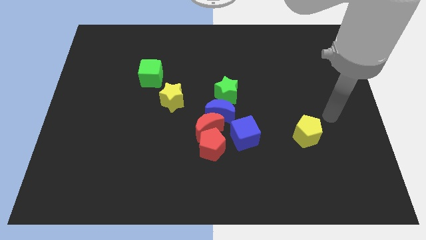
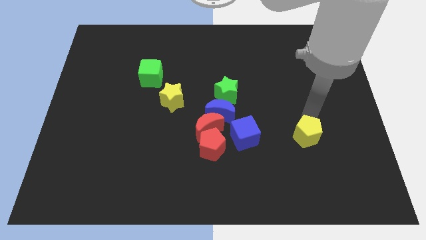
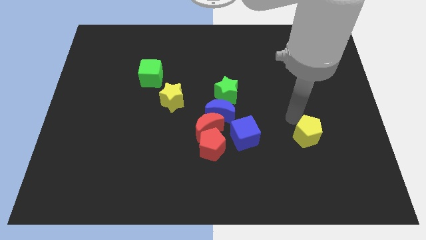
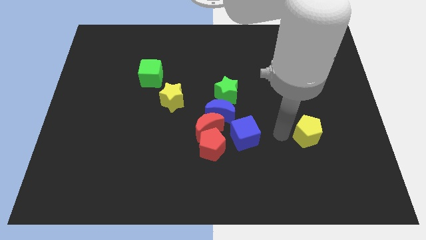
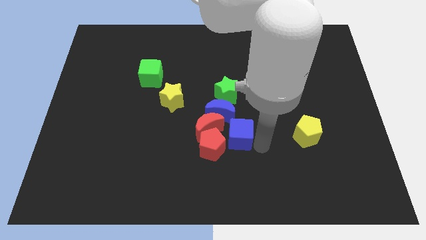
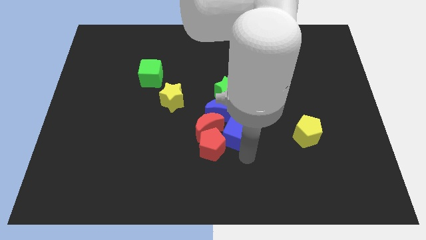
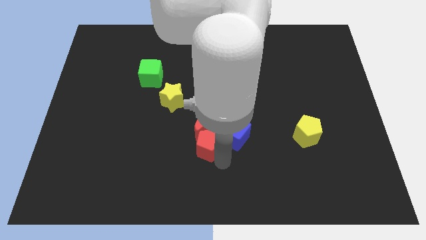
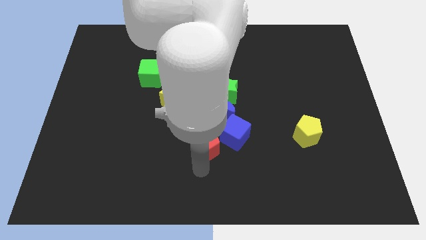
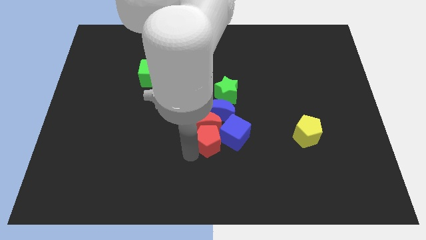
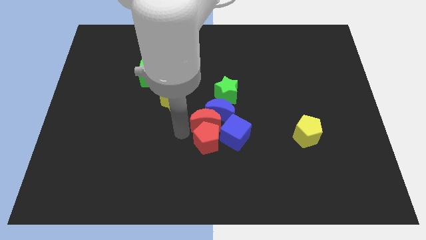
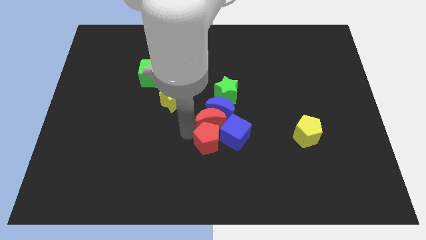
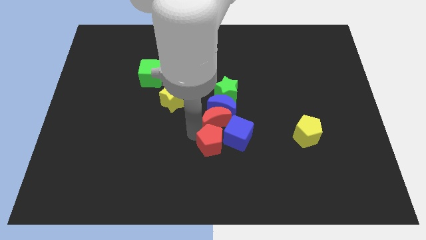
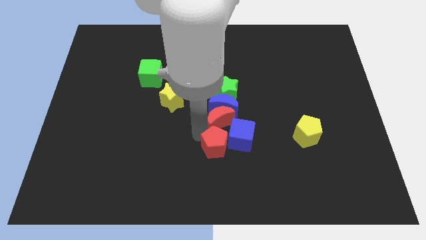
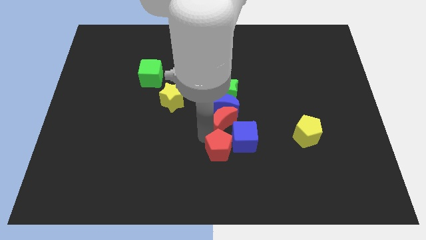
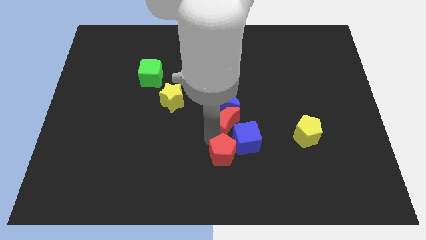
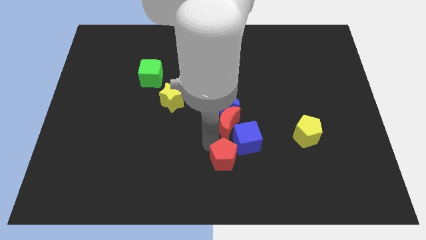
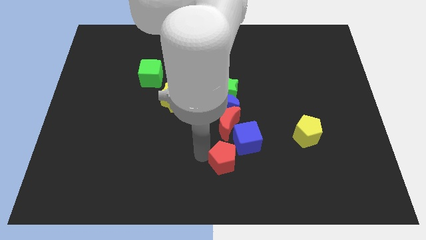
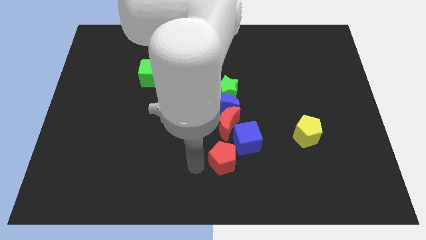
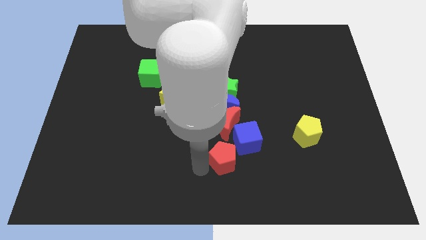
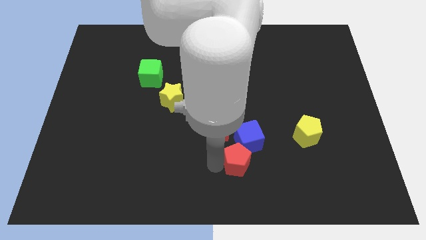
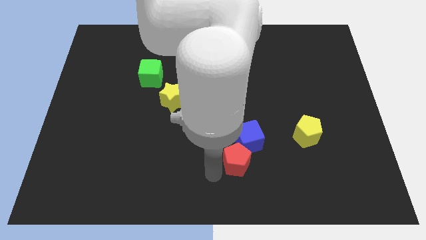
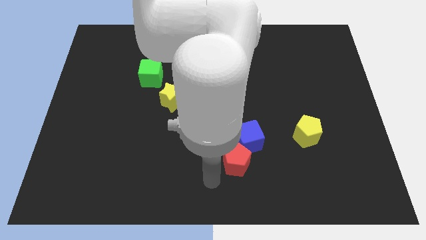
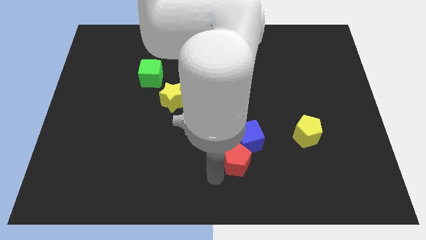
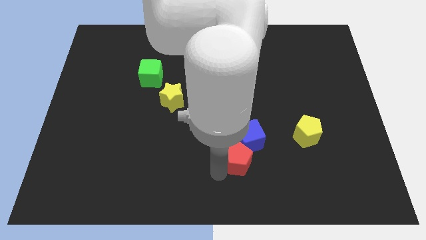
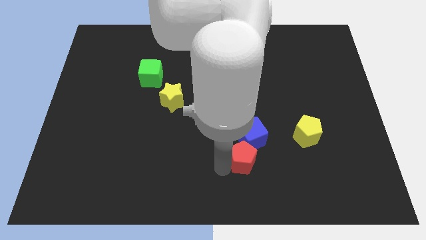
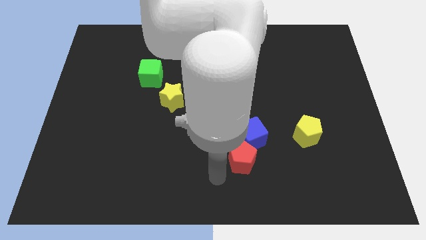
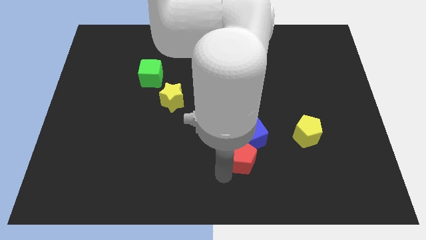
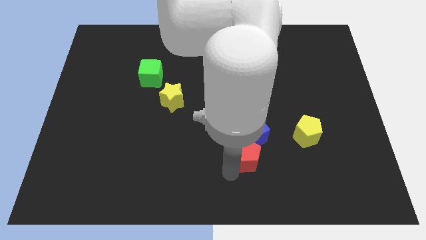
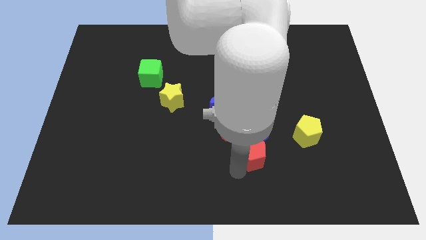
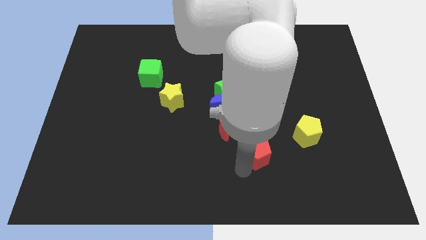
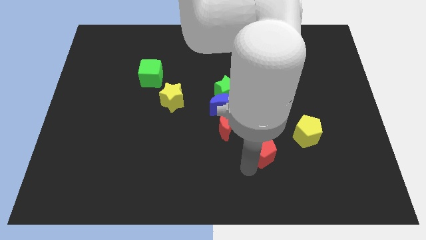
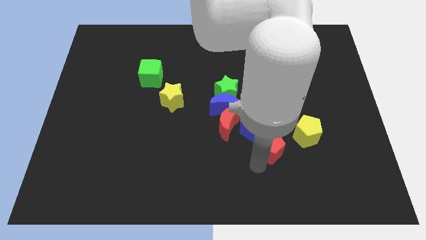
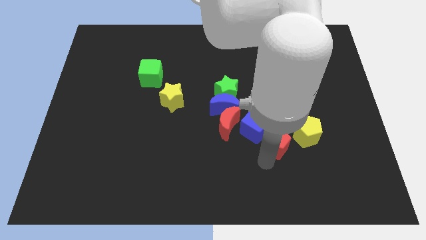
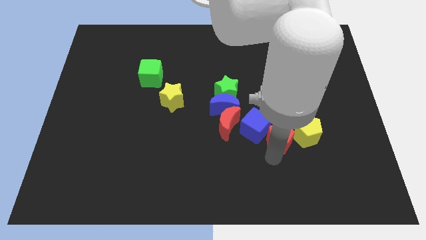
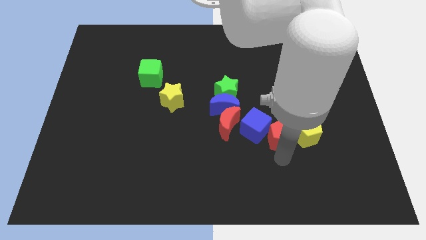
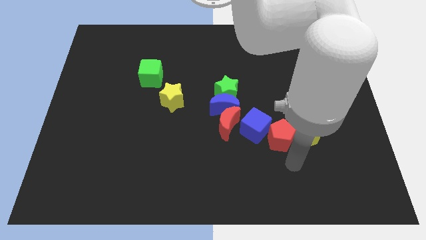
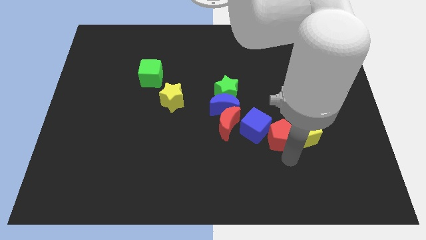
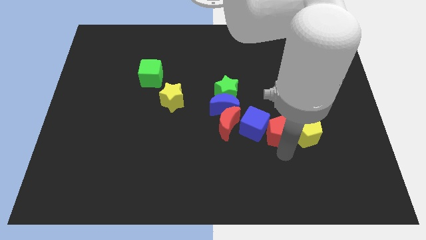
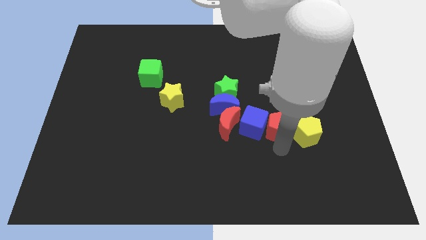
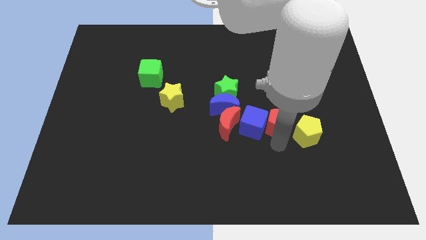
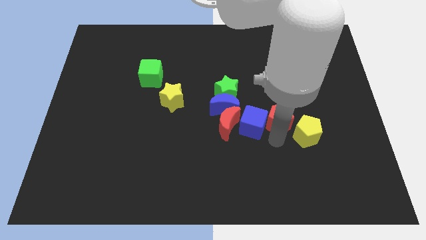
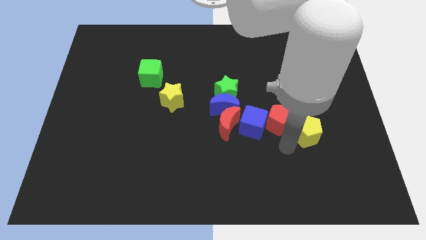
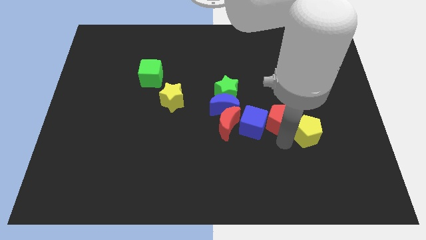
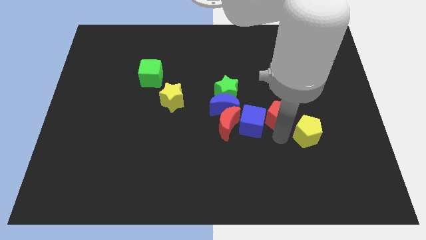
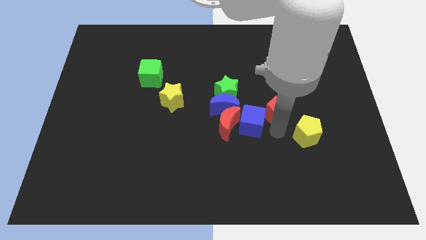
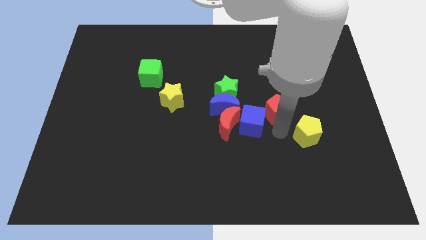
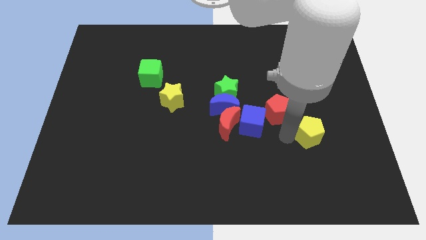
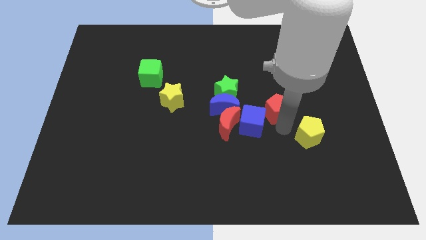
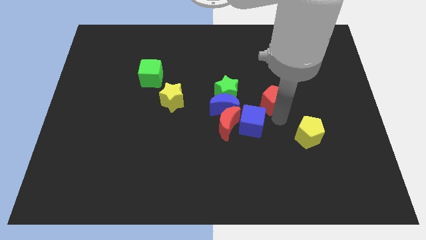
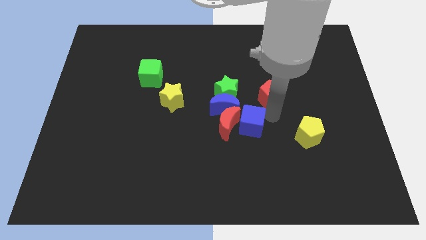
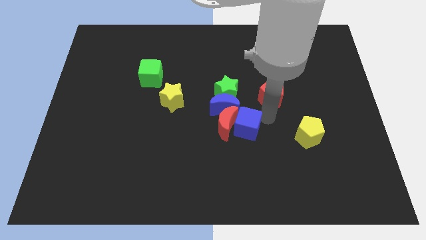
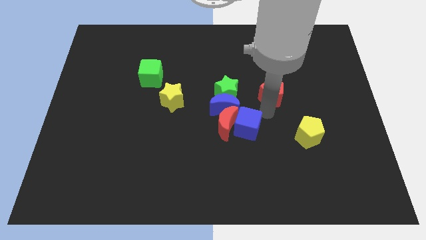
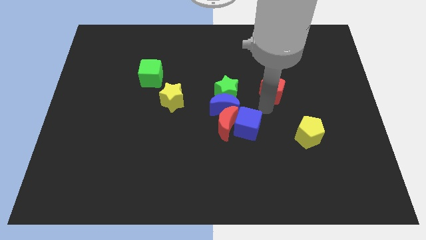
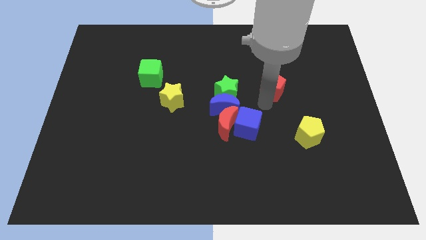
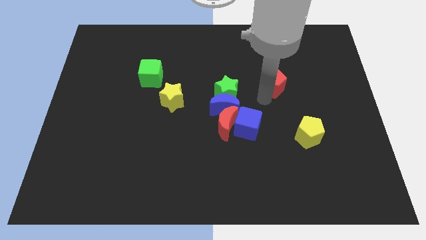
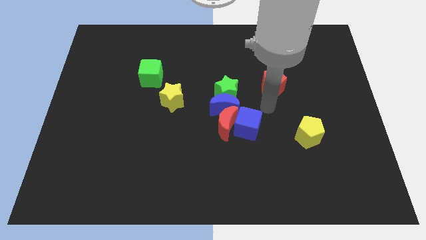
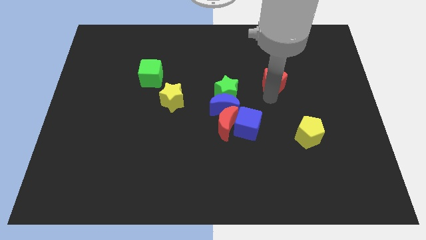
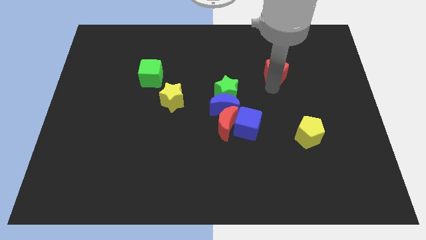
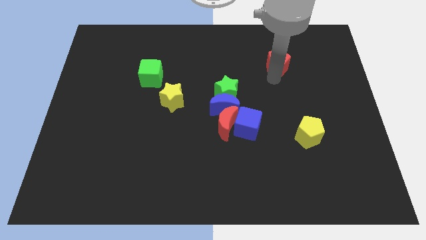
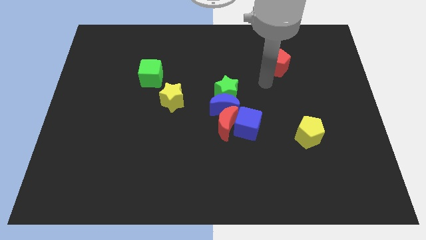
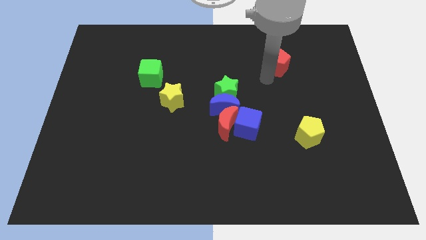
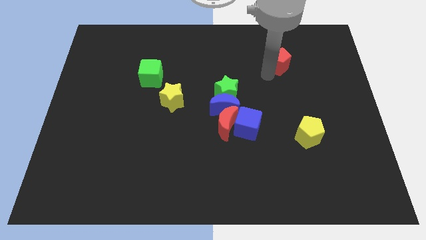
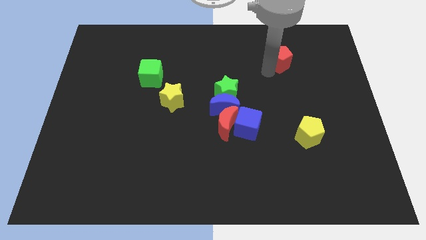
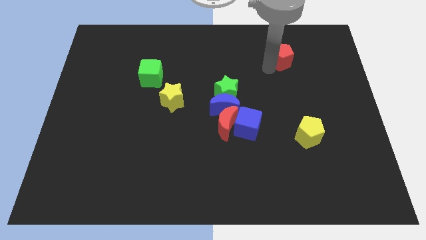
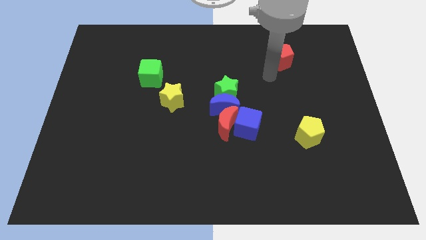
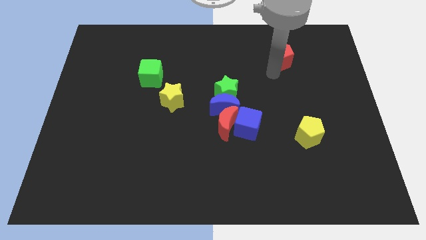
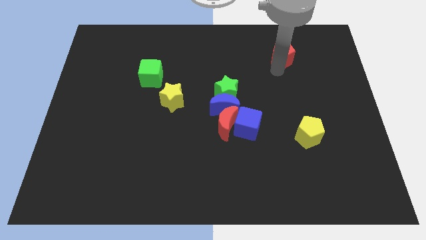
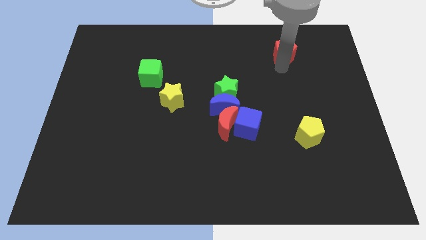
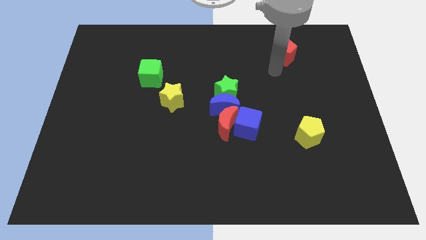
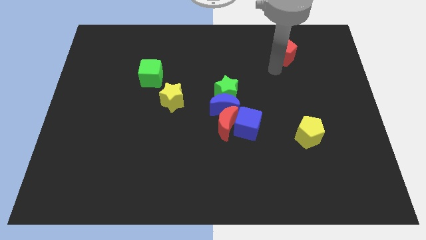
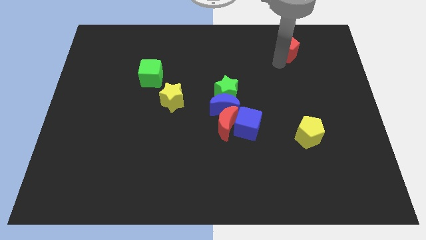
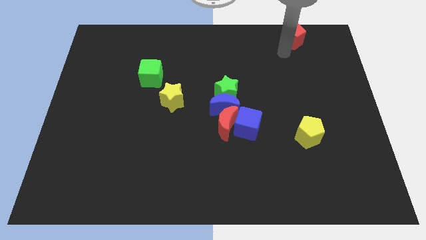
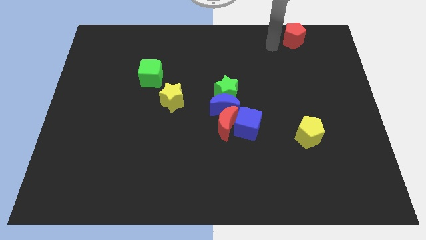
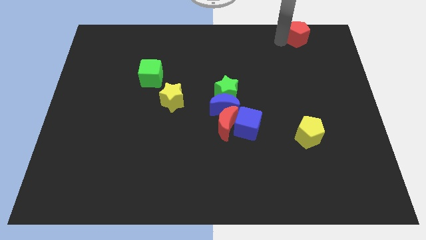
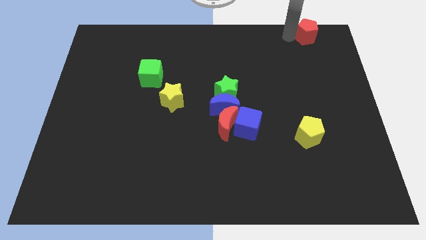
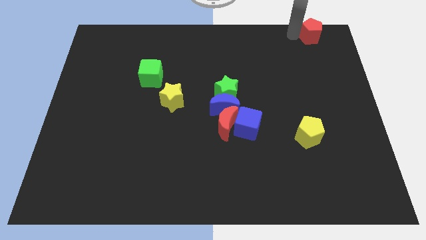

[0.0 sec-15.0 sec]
move the red pentagon to the top right corner
